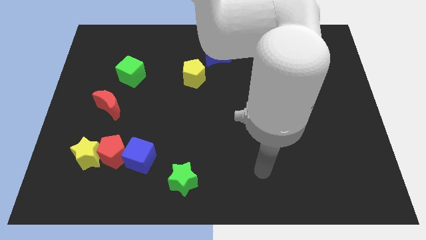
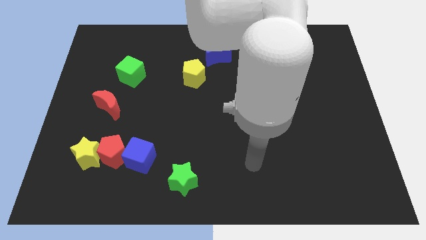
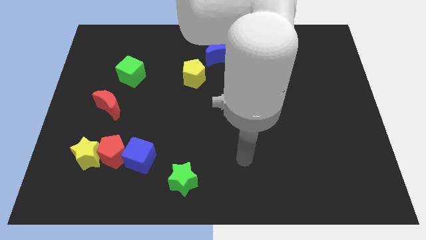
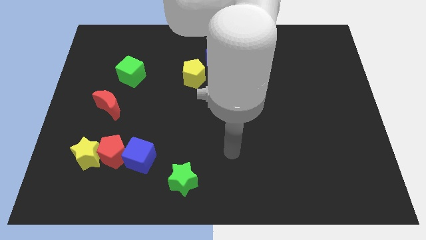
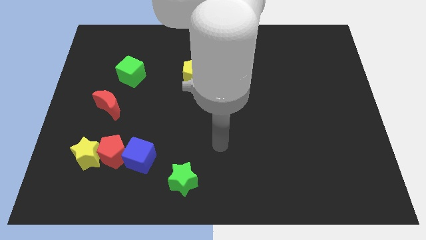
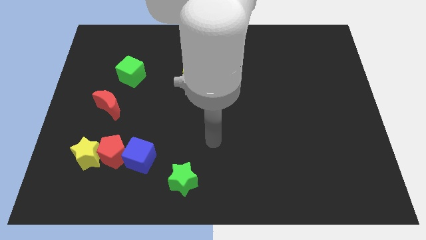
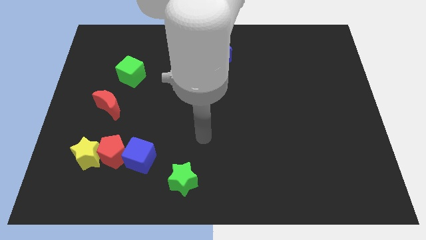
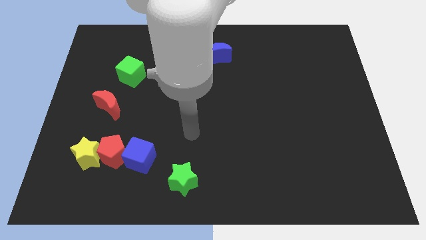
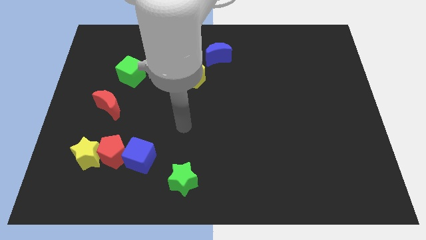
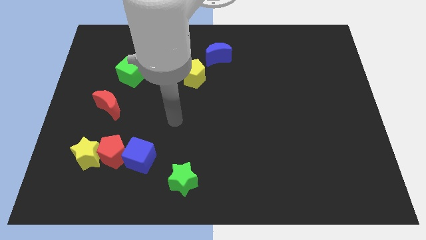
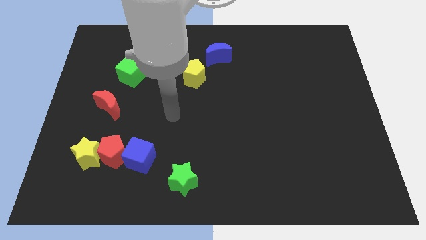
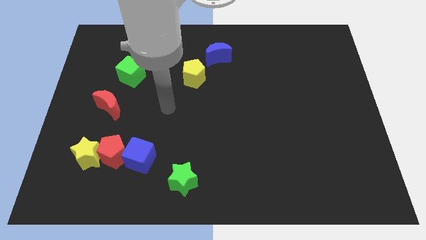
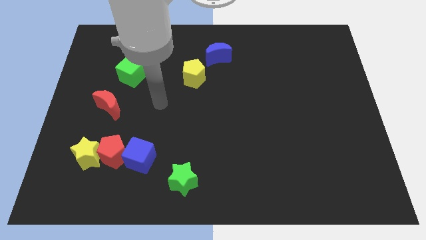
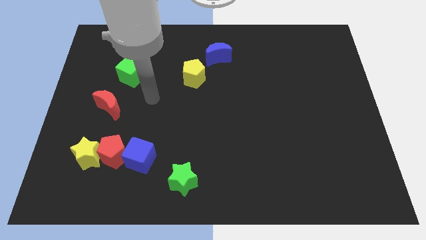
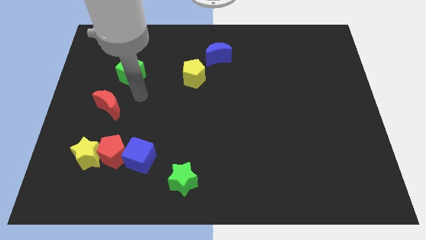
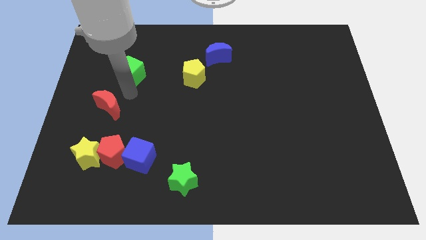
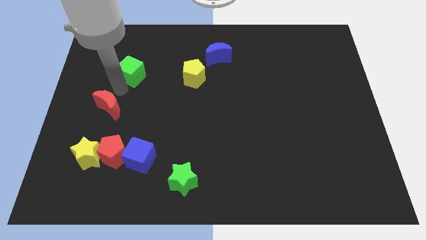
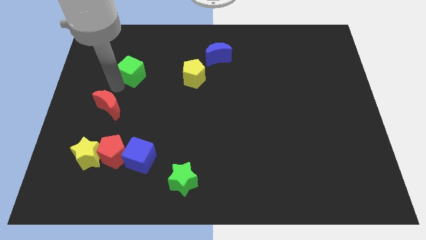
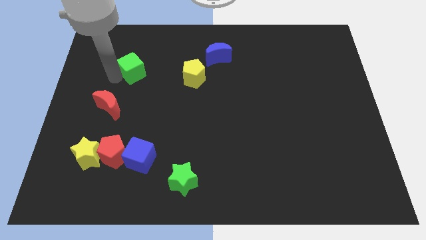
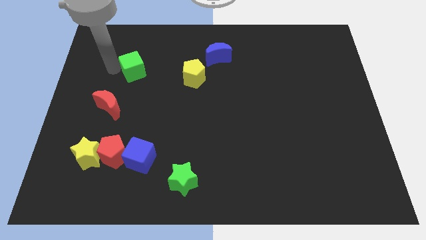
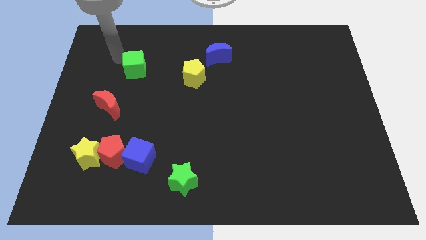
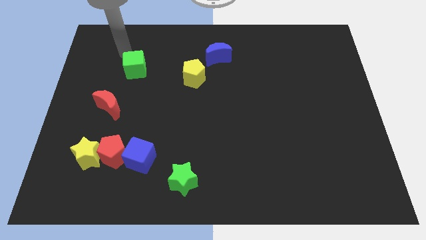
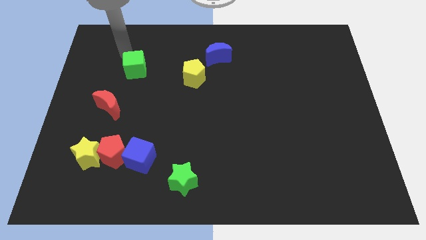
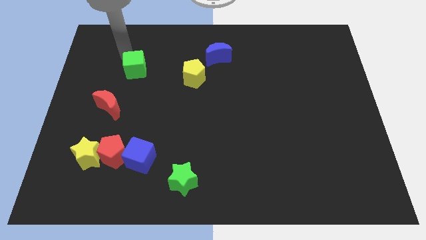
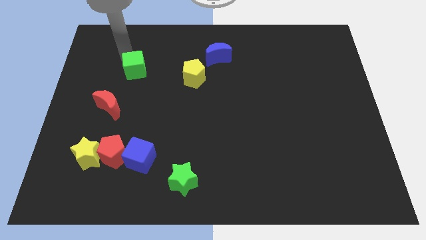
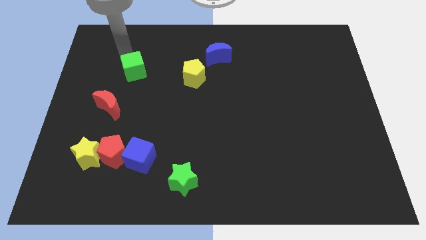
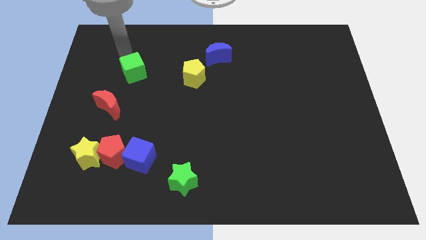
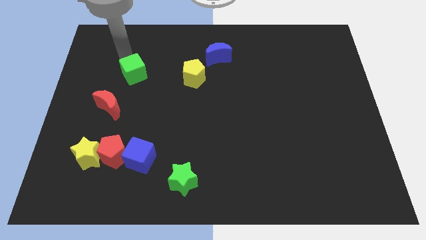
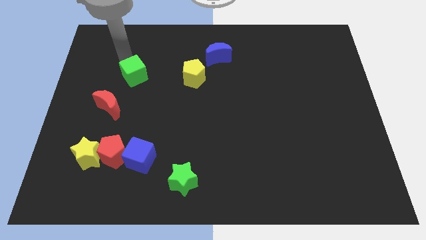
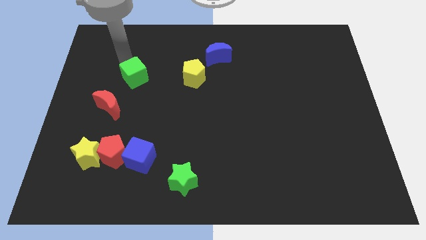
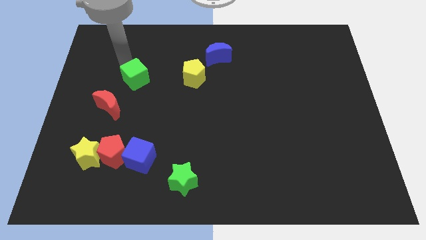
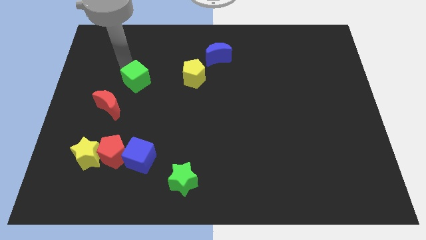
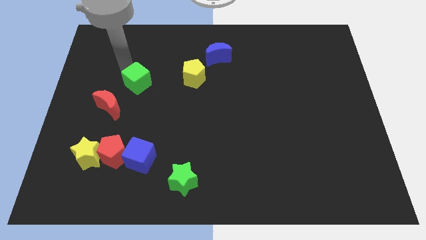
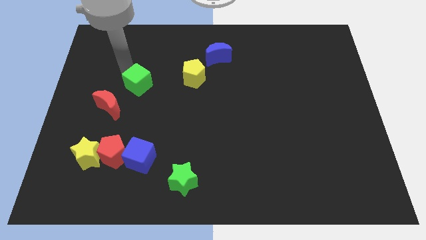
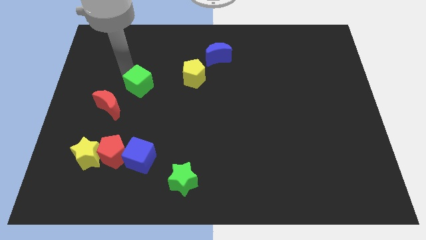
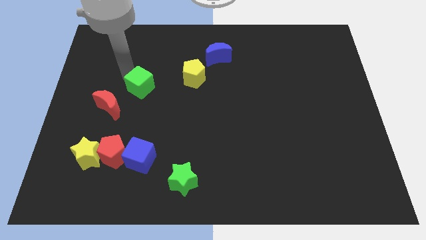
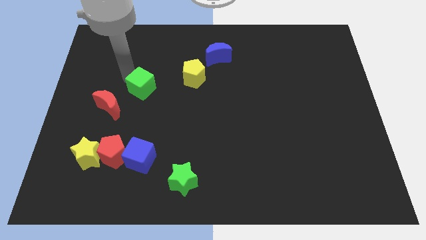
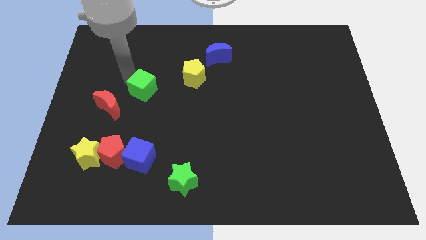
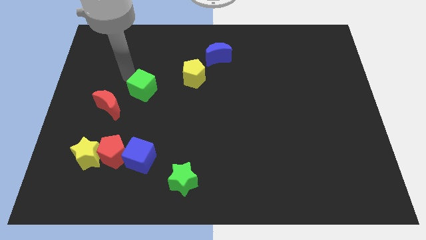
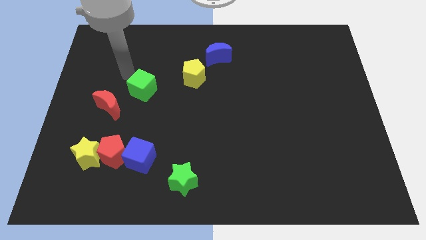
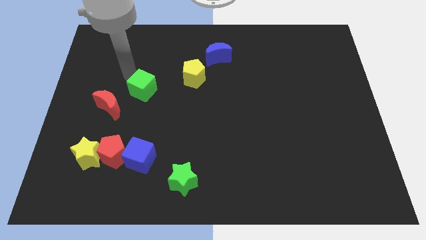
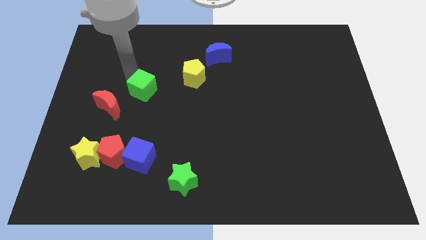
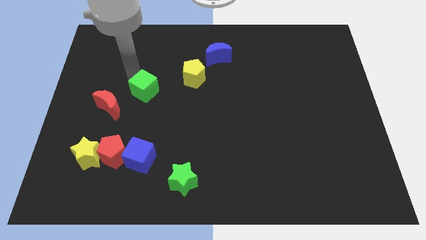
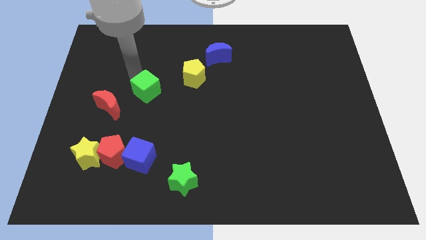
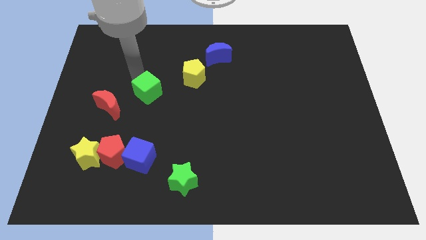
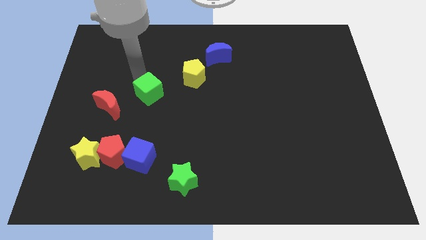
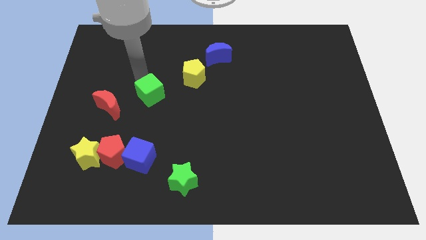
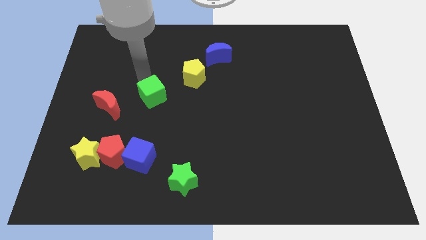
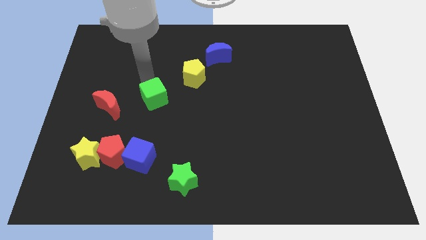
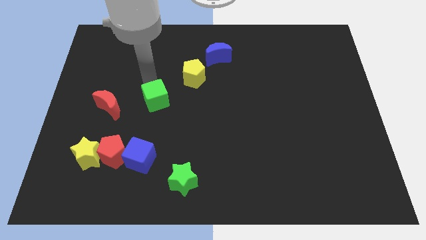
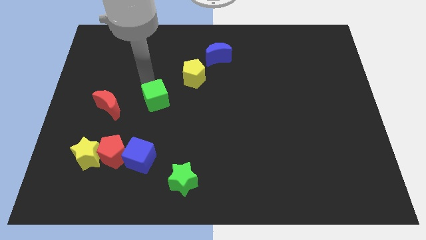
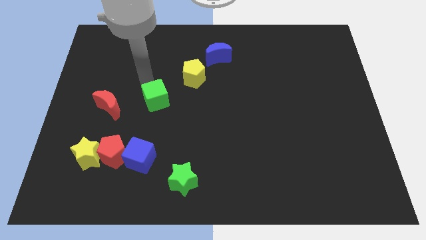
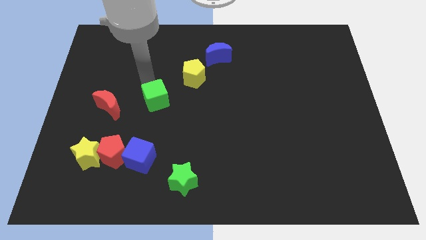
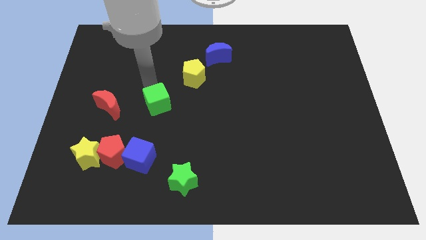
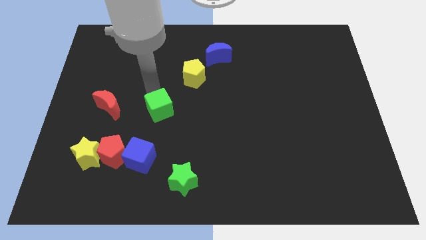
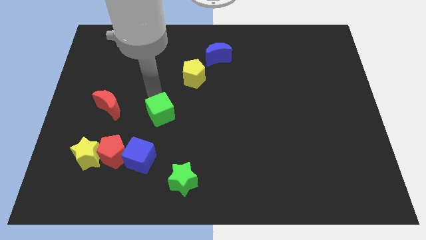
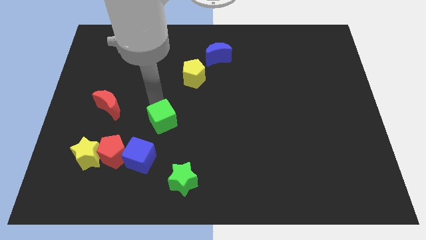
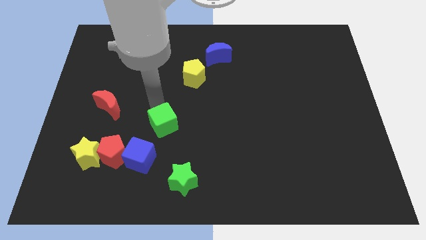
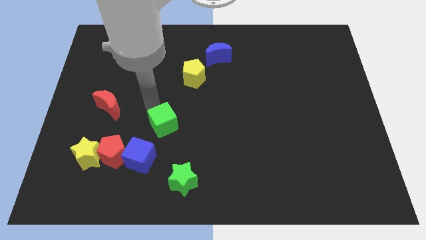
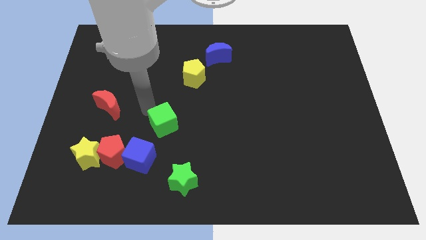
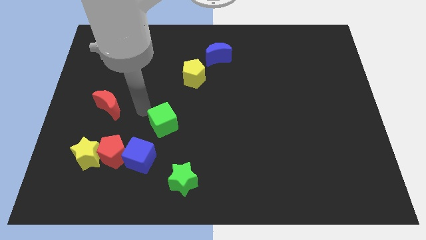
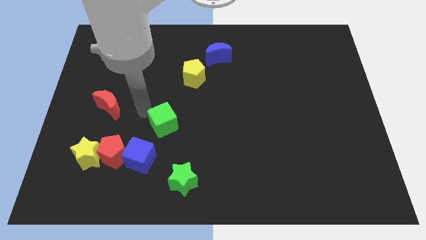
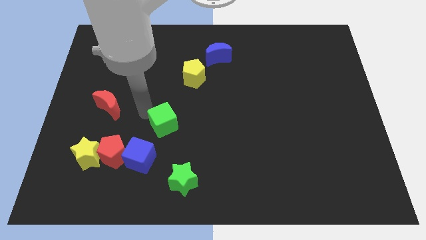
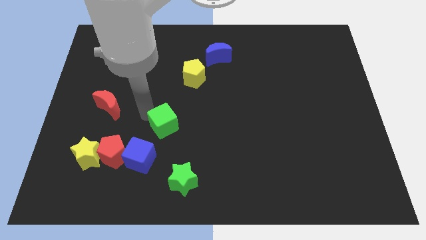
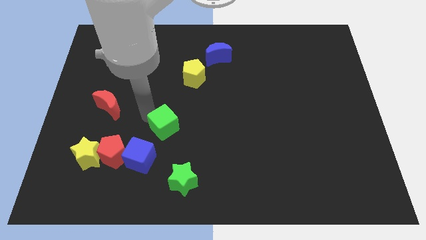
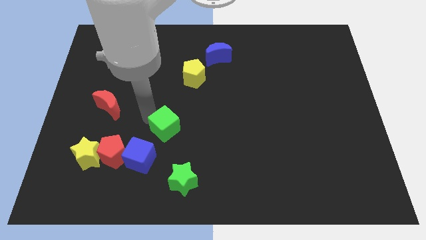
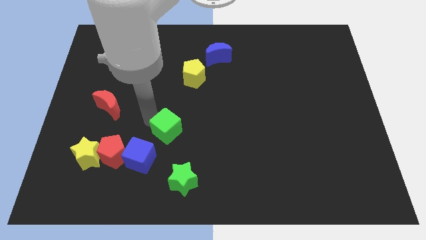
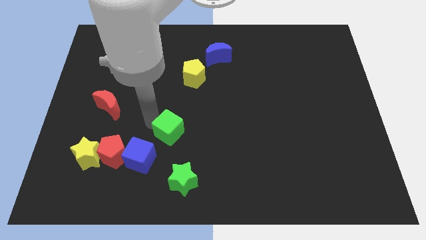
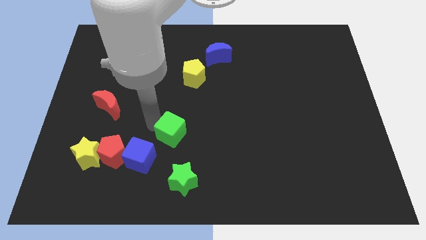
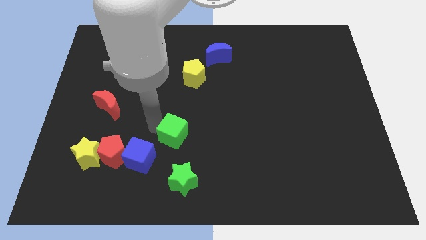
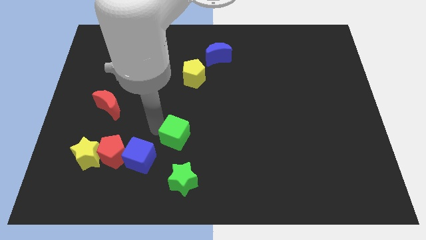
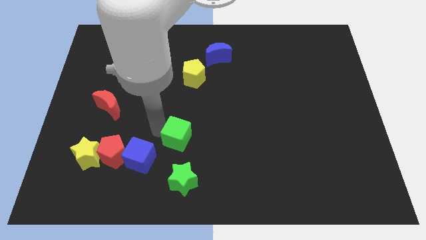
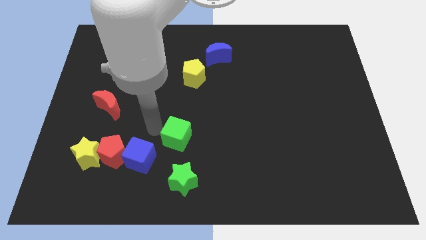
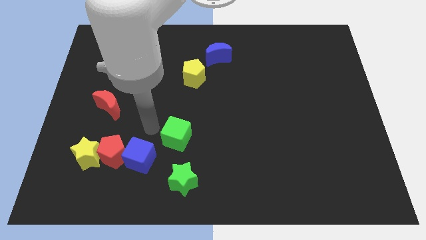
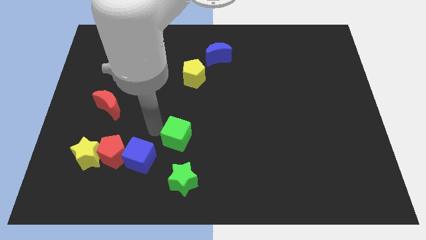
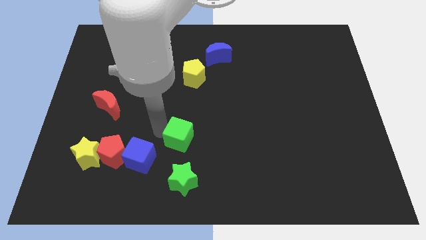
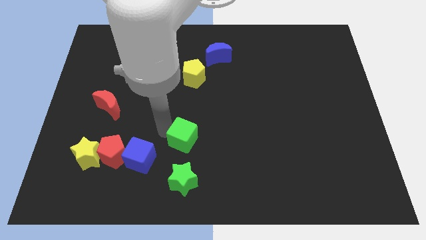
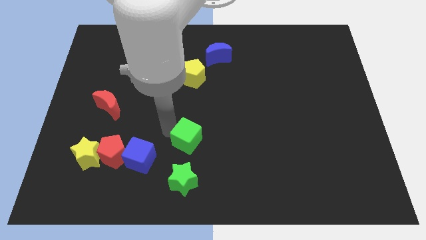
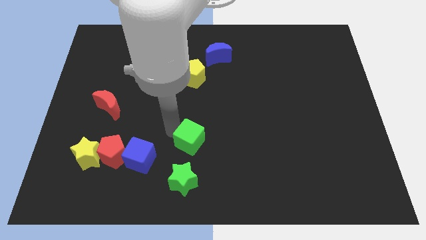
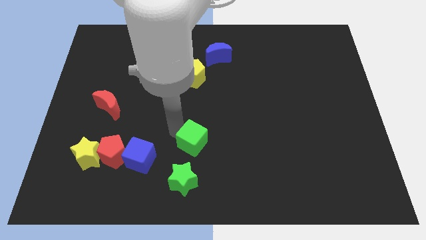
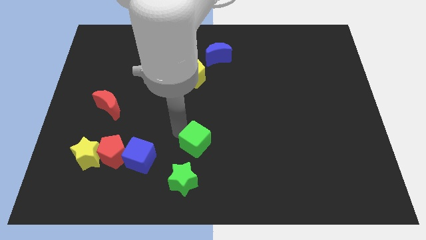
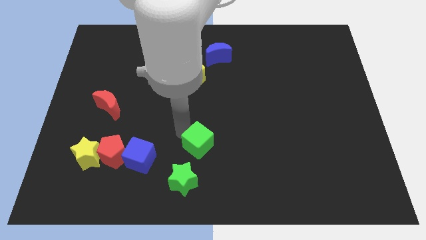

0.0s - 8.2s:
slide the green cube to the top right of the green star
